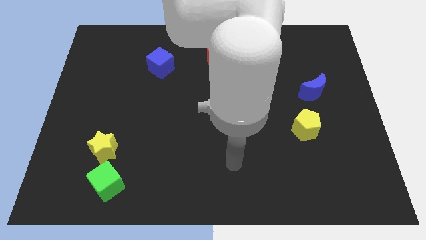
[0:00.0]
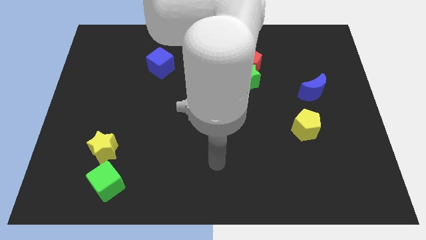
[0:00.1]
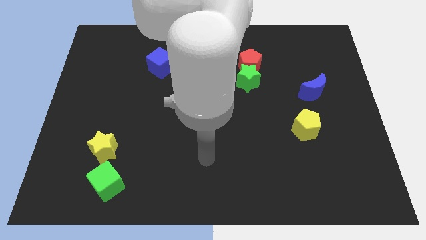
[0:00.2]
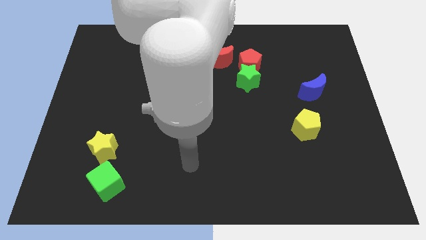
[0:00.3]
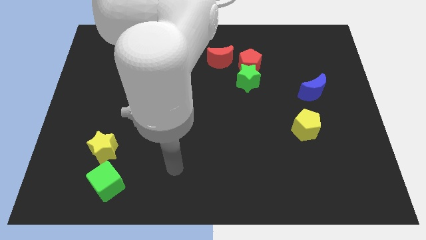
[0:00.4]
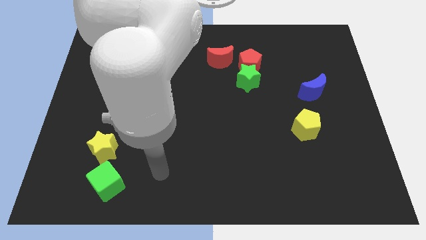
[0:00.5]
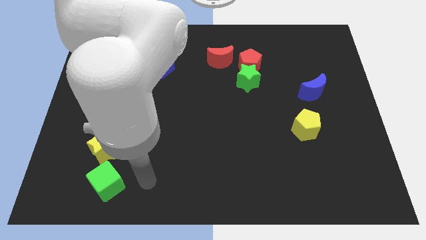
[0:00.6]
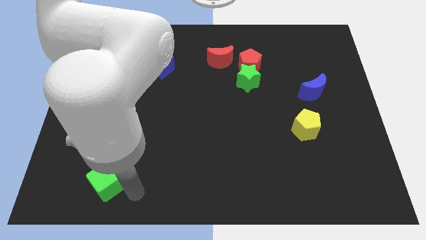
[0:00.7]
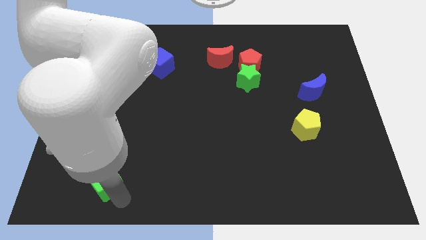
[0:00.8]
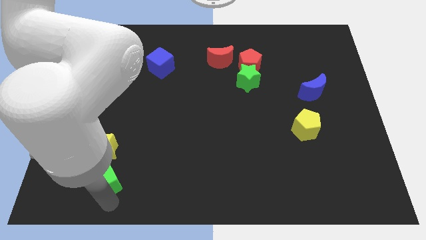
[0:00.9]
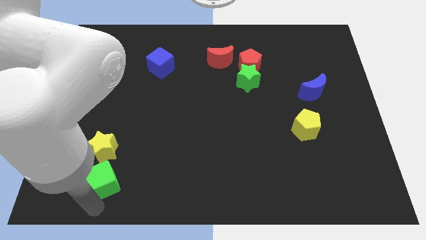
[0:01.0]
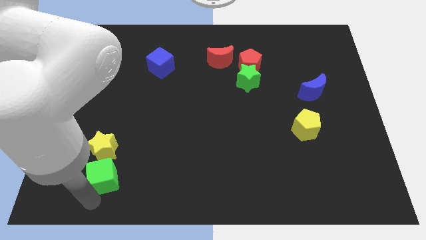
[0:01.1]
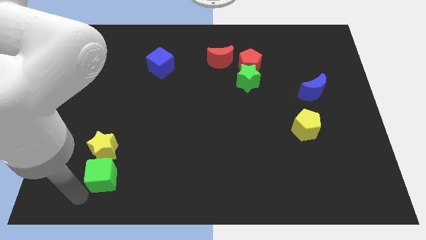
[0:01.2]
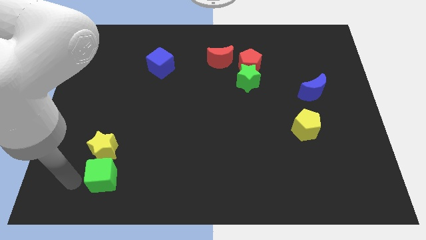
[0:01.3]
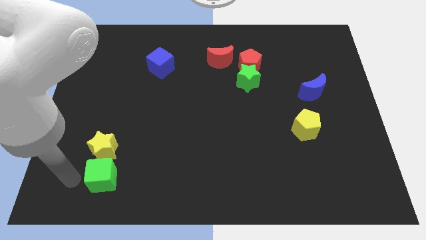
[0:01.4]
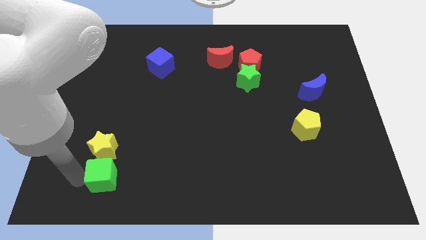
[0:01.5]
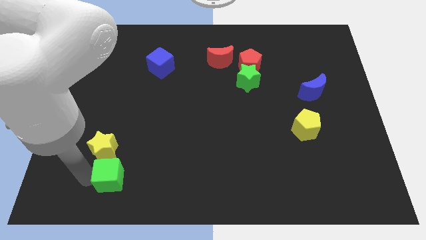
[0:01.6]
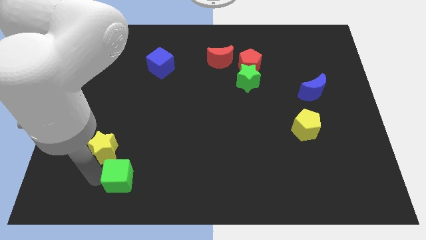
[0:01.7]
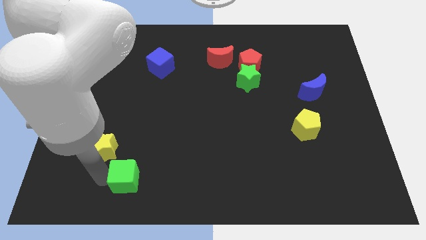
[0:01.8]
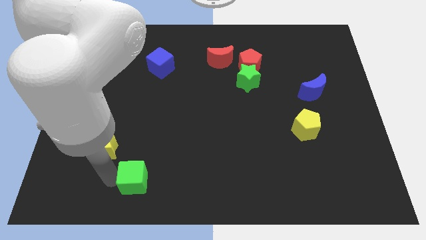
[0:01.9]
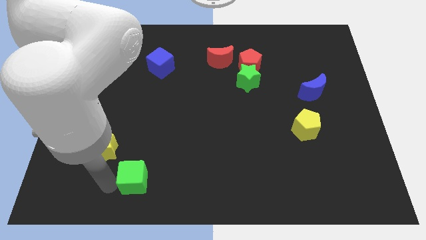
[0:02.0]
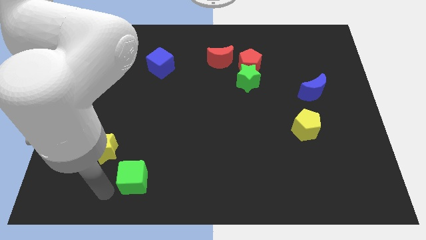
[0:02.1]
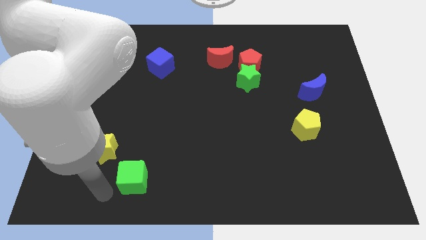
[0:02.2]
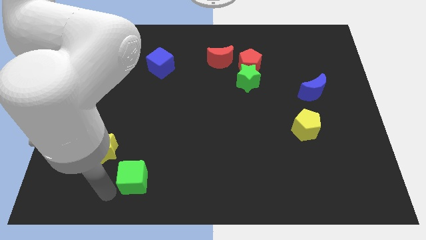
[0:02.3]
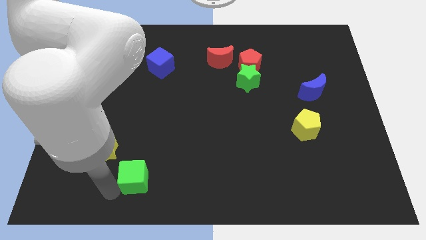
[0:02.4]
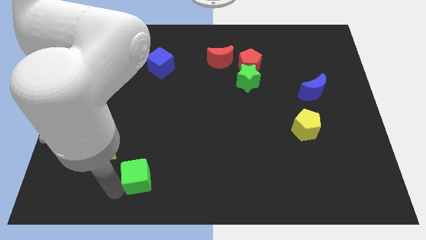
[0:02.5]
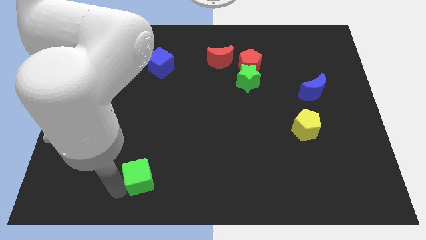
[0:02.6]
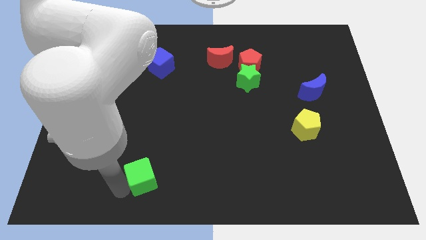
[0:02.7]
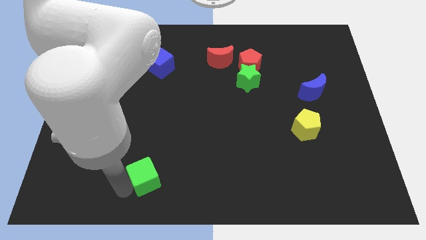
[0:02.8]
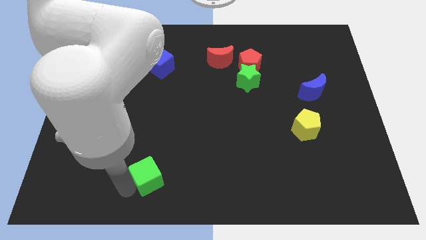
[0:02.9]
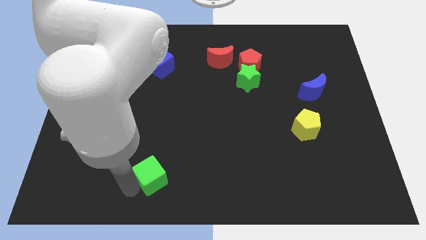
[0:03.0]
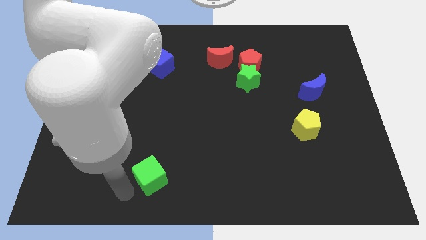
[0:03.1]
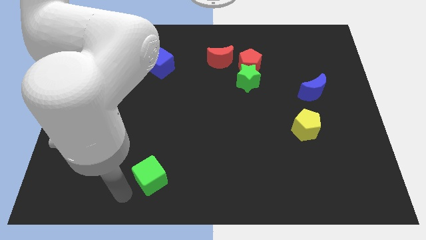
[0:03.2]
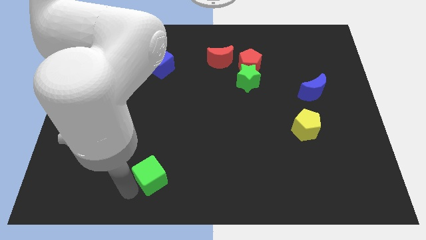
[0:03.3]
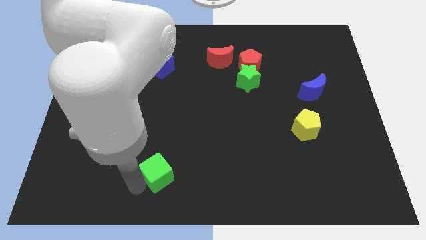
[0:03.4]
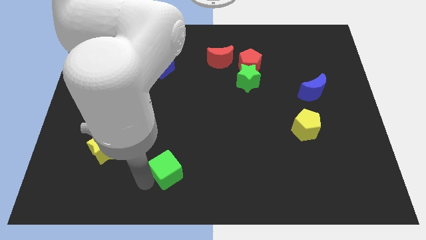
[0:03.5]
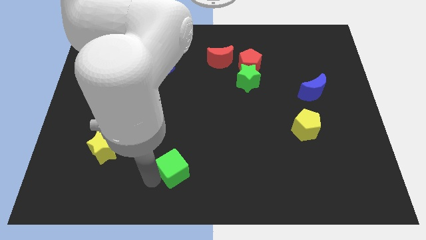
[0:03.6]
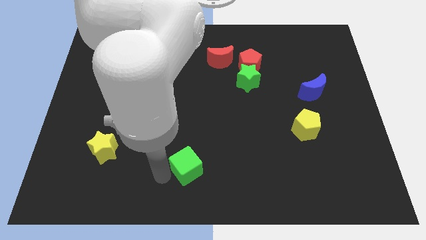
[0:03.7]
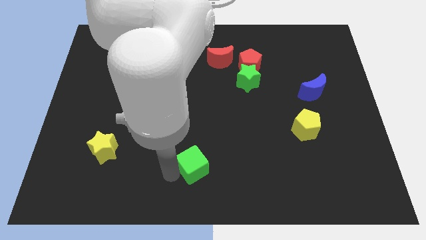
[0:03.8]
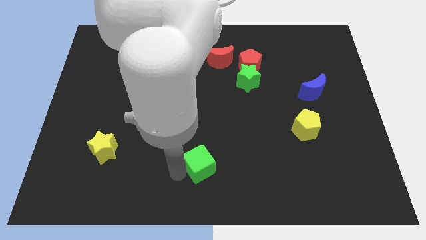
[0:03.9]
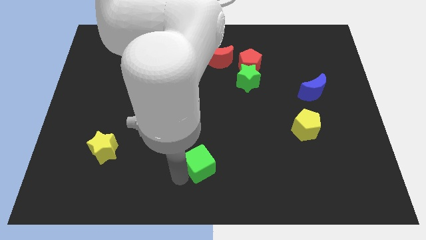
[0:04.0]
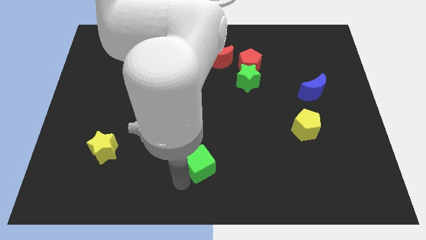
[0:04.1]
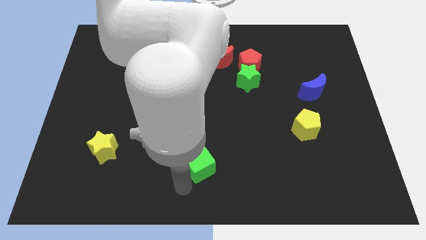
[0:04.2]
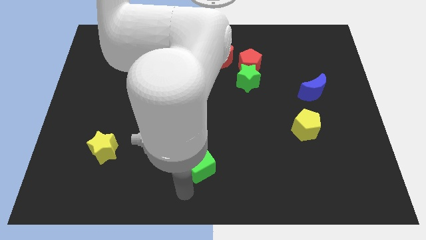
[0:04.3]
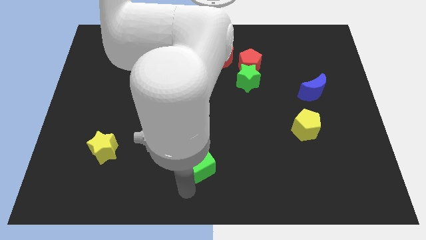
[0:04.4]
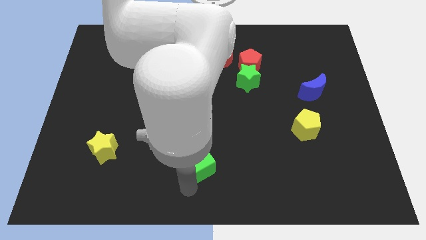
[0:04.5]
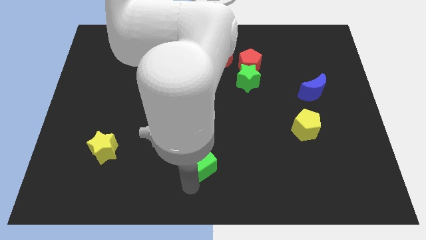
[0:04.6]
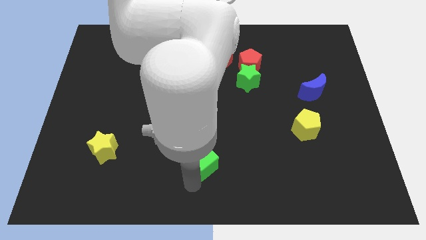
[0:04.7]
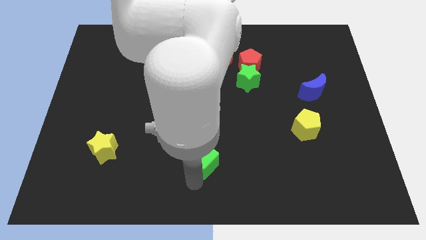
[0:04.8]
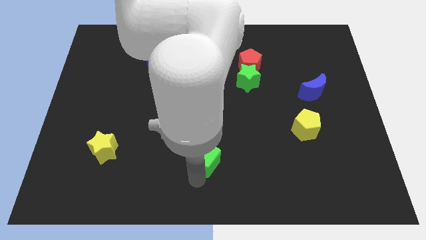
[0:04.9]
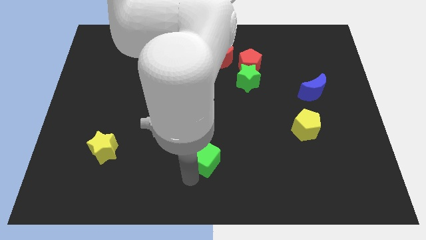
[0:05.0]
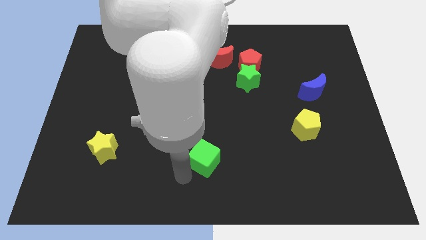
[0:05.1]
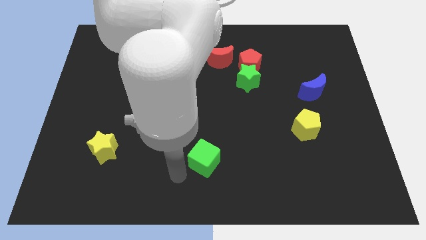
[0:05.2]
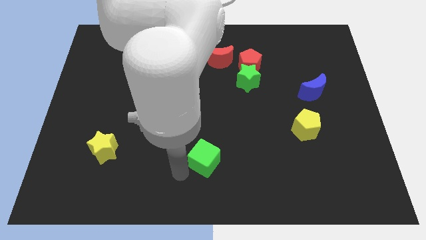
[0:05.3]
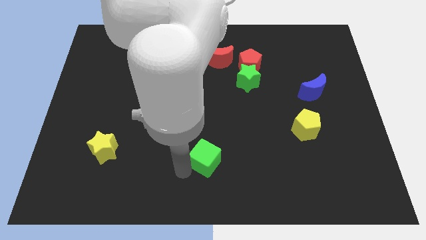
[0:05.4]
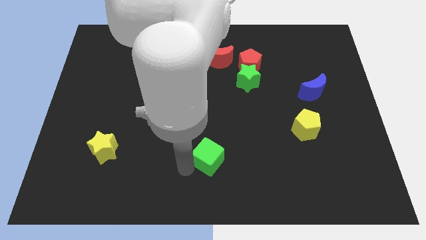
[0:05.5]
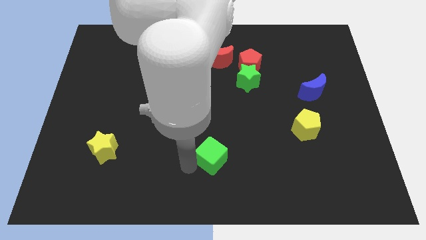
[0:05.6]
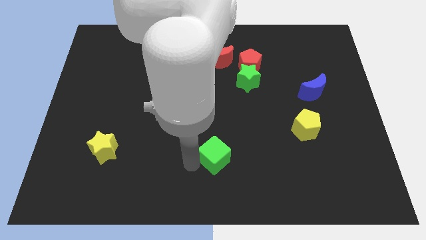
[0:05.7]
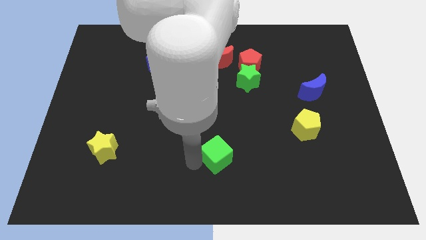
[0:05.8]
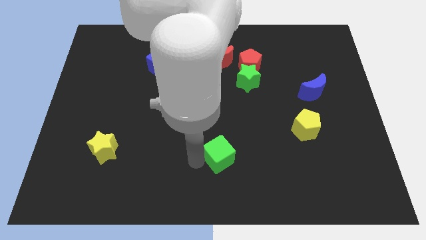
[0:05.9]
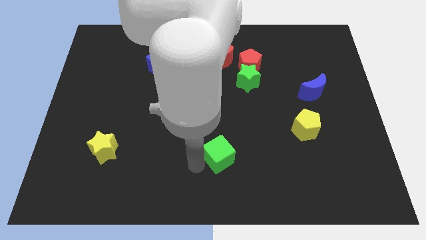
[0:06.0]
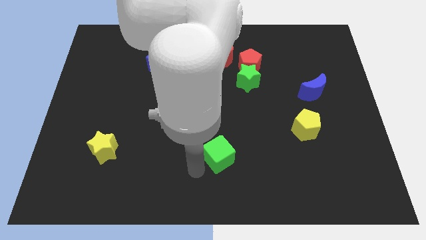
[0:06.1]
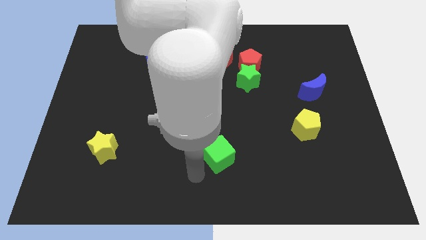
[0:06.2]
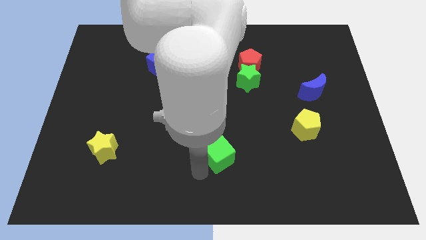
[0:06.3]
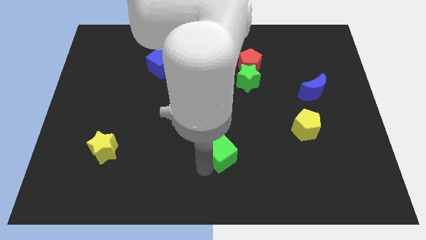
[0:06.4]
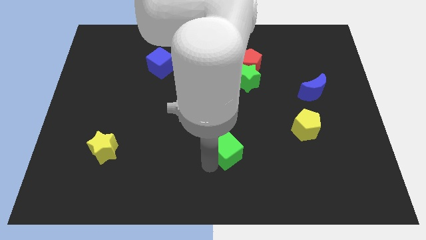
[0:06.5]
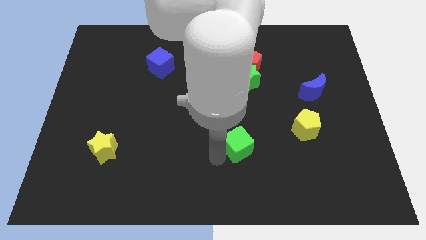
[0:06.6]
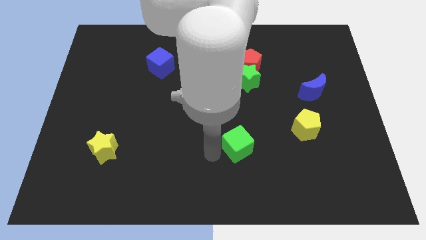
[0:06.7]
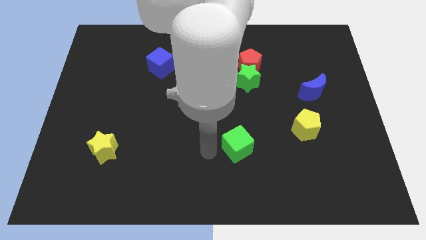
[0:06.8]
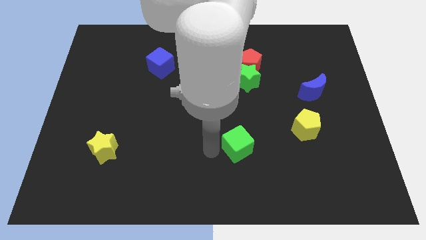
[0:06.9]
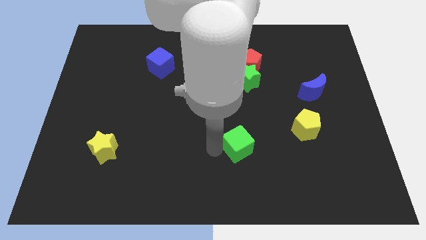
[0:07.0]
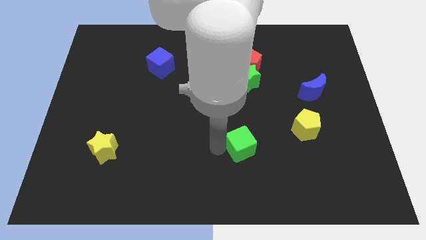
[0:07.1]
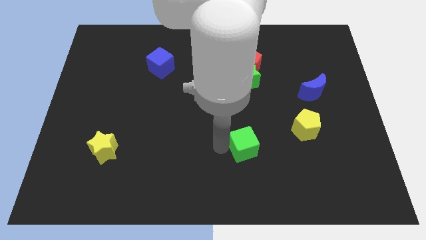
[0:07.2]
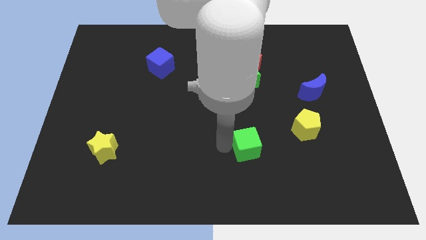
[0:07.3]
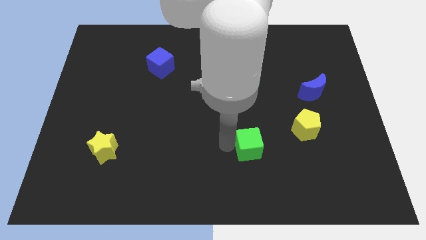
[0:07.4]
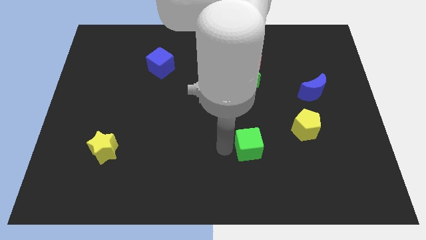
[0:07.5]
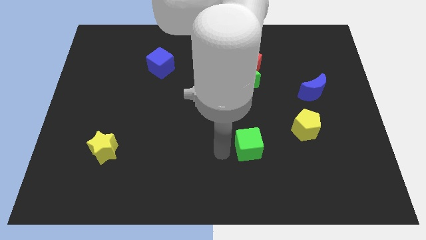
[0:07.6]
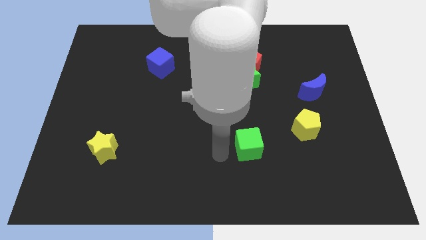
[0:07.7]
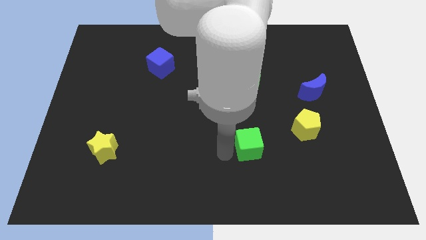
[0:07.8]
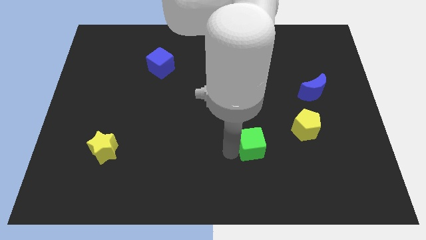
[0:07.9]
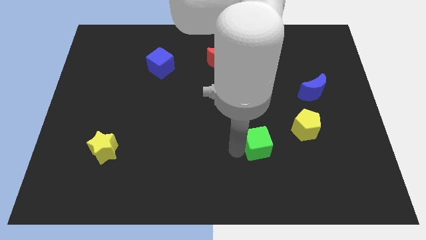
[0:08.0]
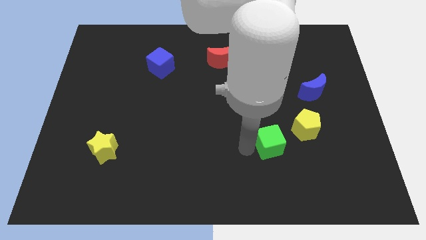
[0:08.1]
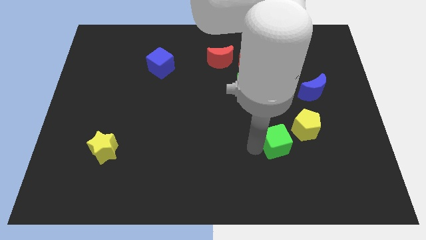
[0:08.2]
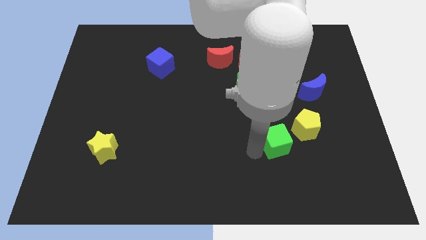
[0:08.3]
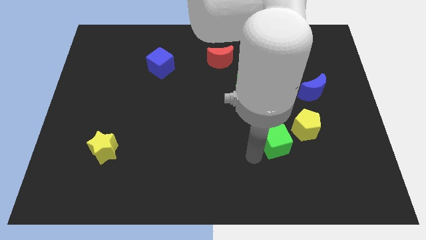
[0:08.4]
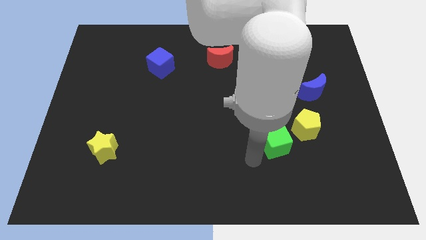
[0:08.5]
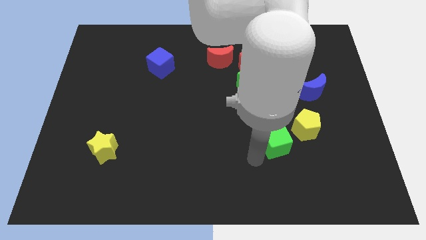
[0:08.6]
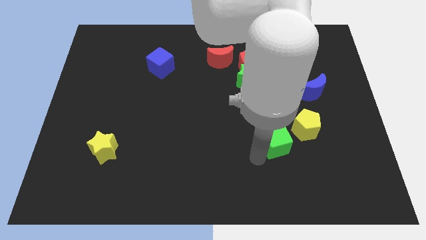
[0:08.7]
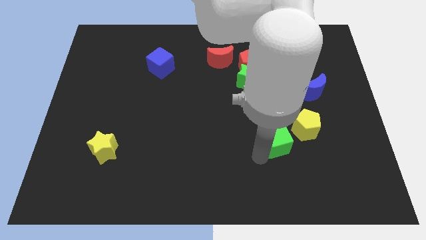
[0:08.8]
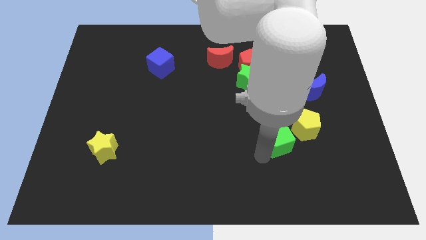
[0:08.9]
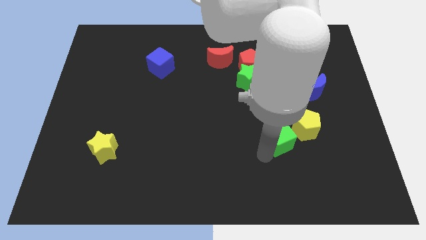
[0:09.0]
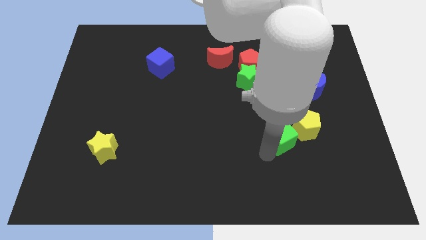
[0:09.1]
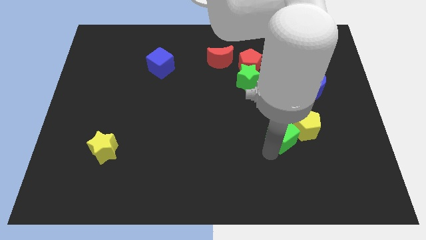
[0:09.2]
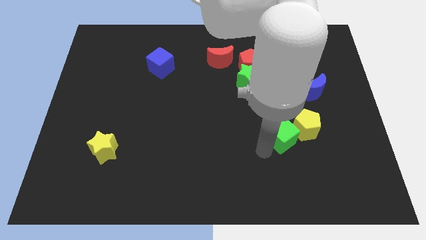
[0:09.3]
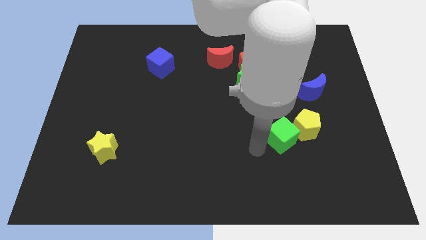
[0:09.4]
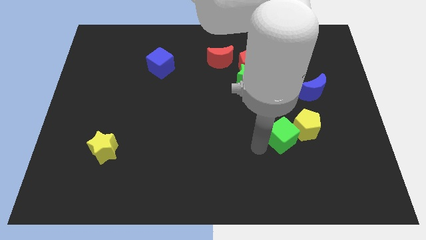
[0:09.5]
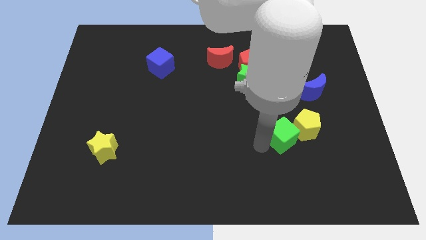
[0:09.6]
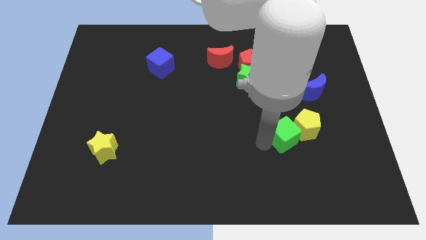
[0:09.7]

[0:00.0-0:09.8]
put the green cube towards the yellow pentagon
